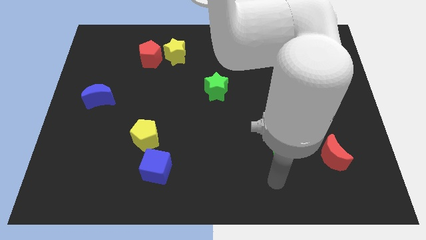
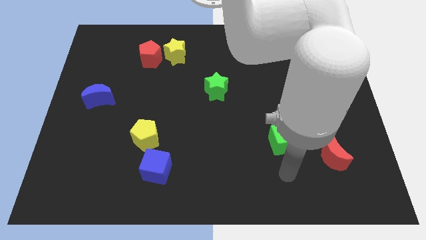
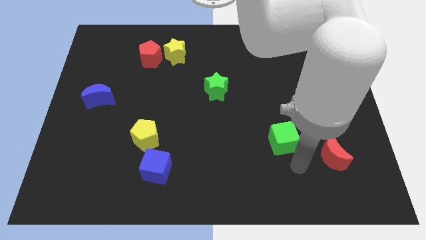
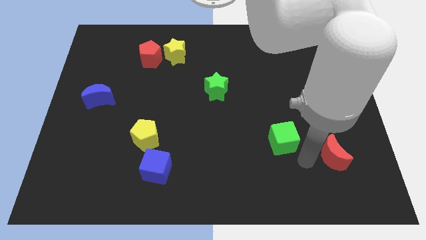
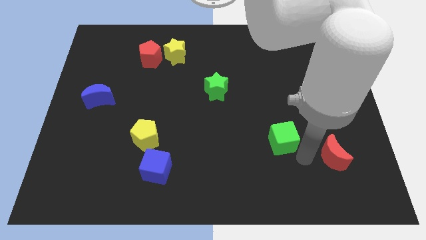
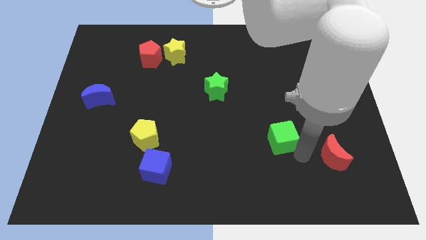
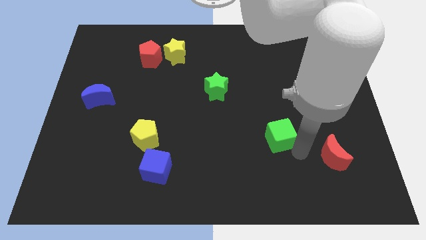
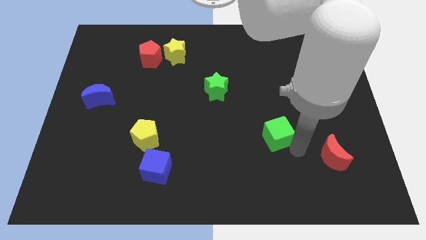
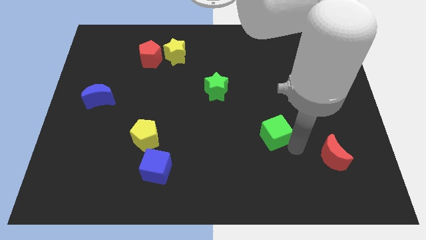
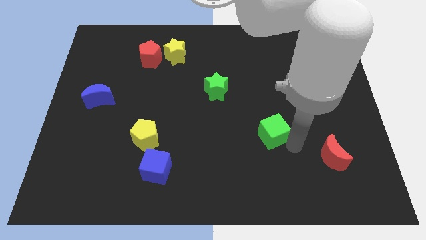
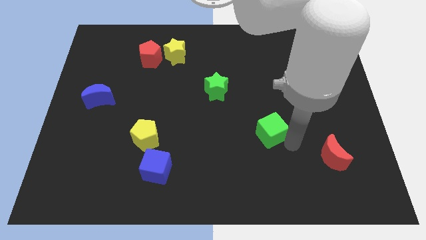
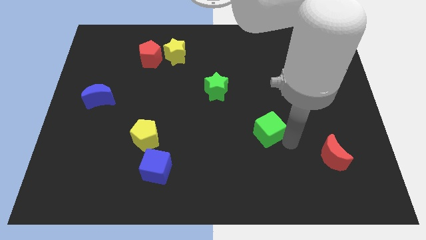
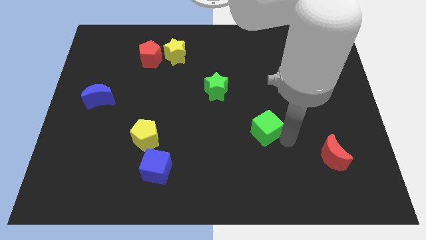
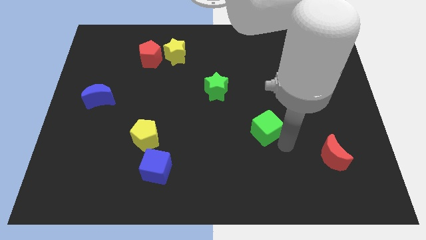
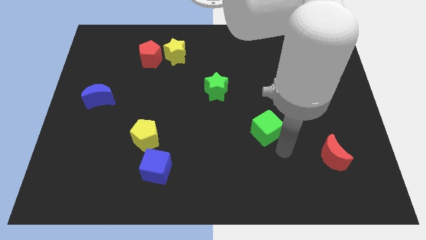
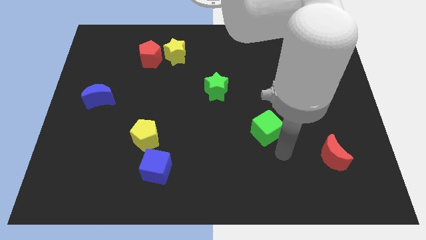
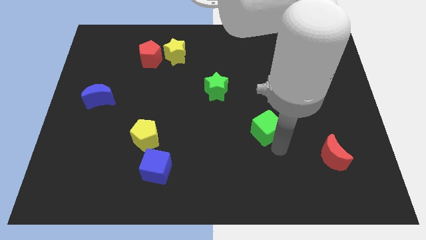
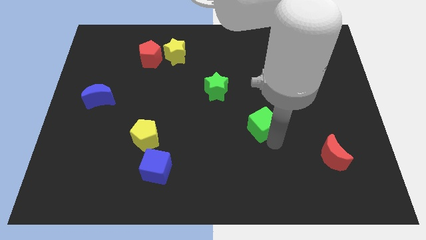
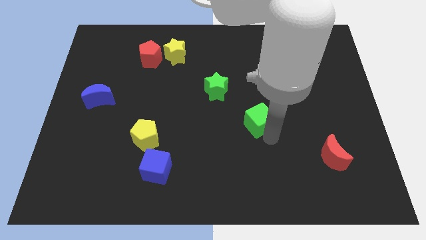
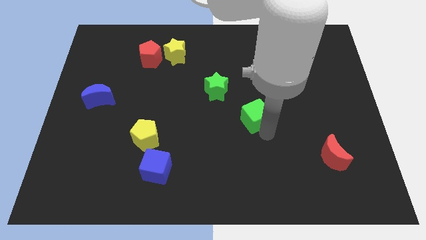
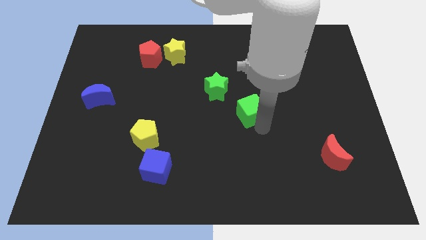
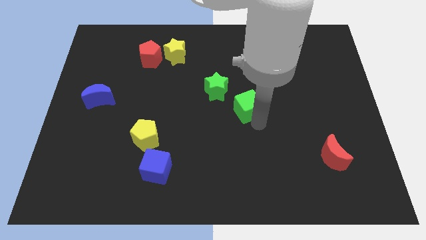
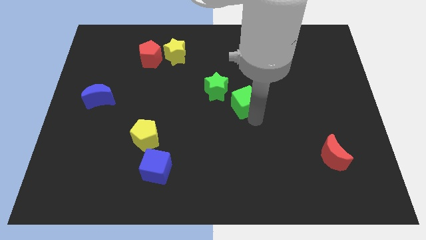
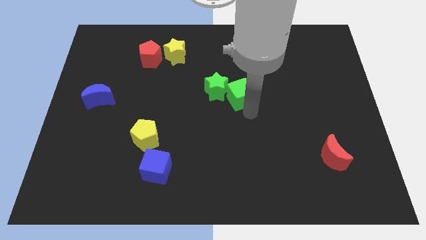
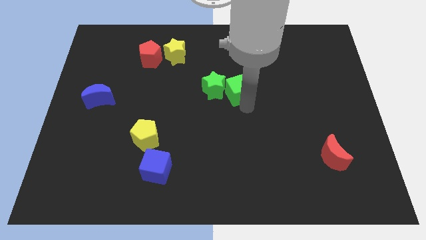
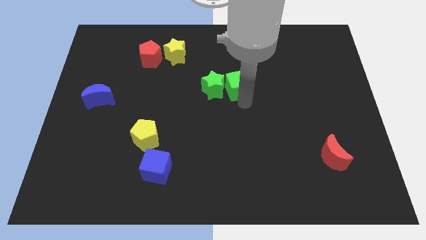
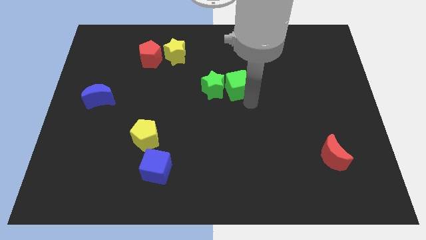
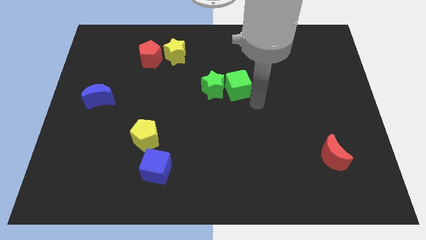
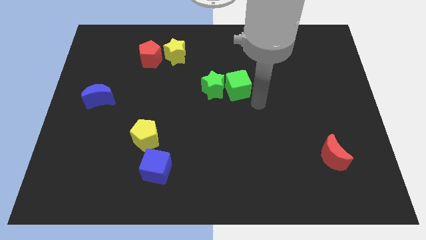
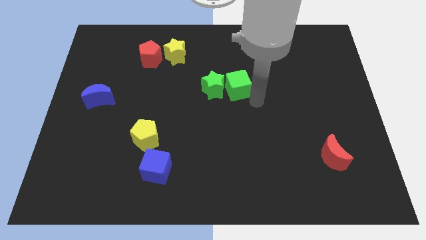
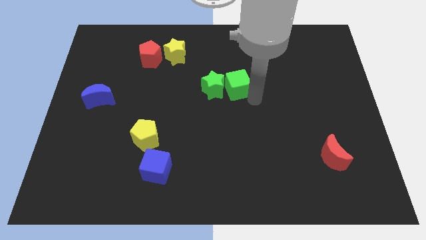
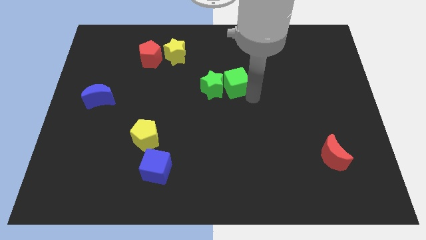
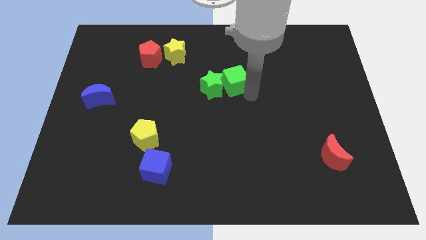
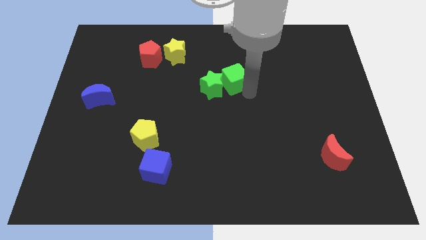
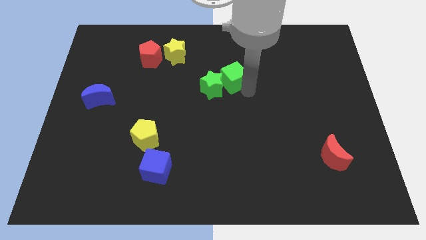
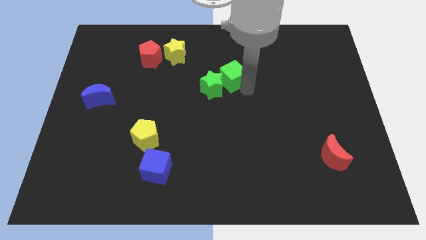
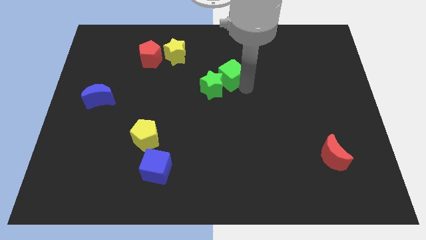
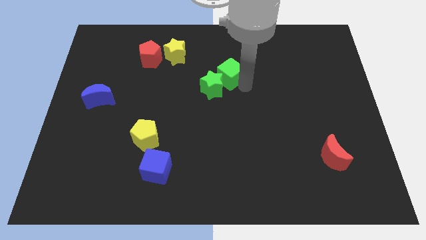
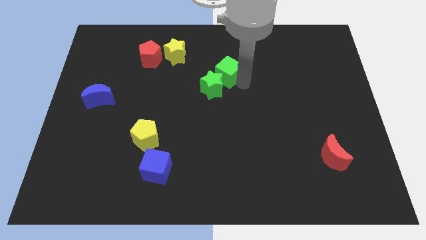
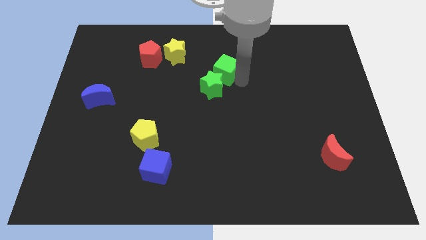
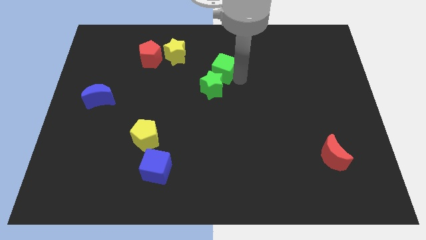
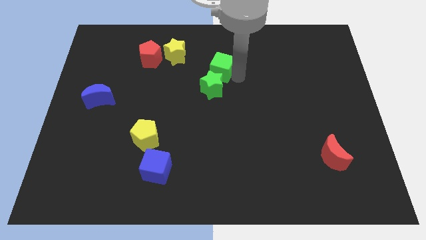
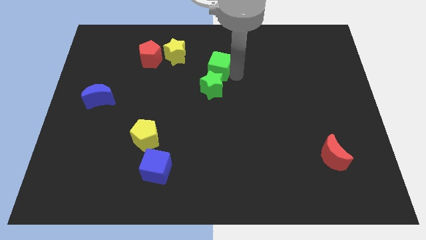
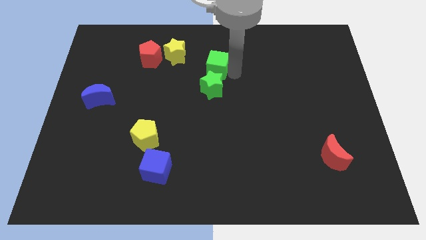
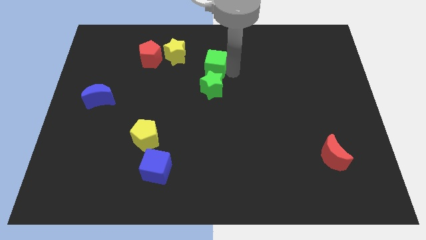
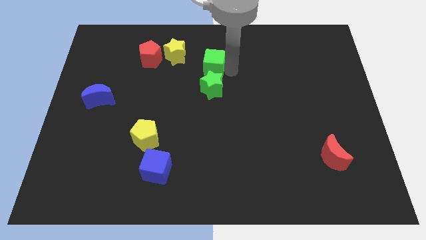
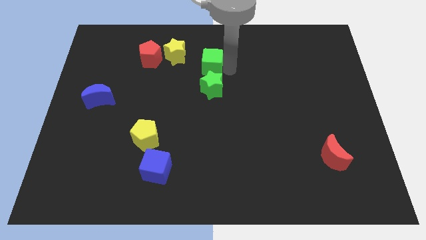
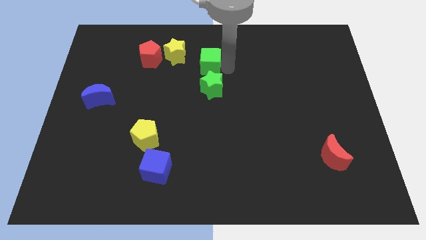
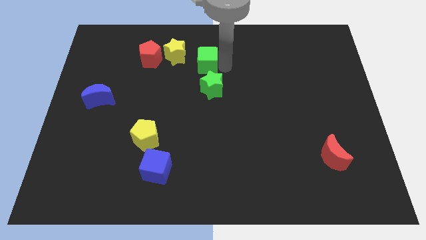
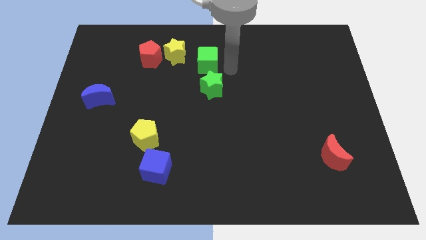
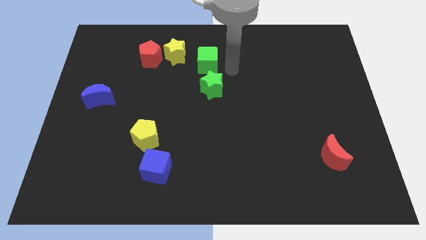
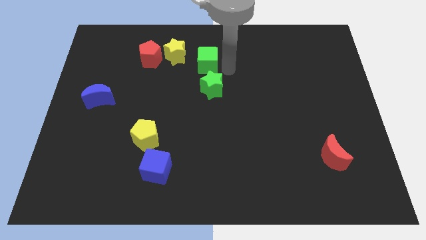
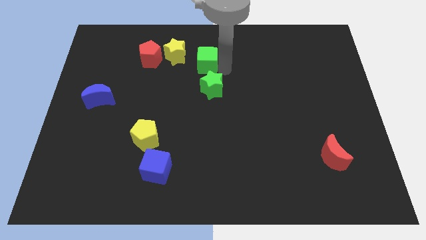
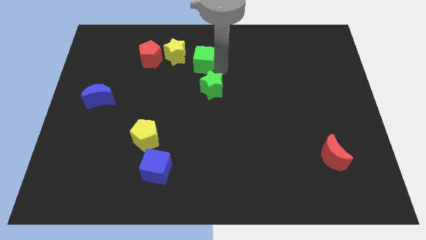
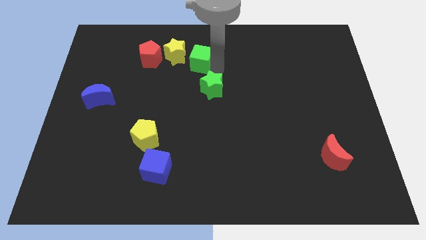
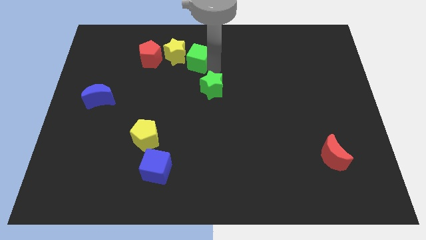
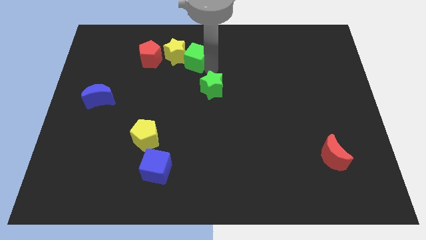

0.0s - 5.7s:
put the green cube close to the yellow star
